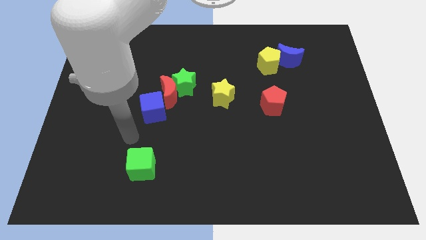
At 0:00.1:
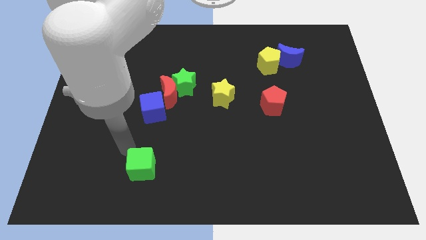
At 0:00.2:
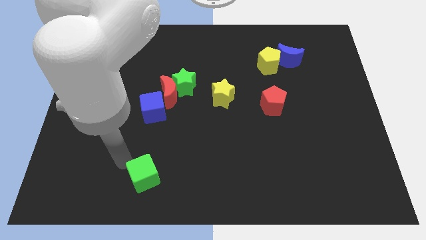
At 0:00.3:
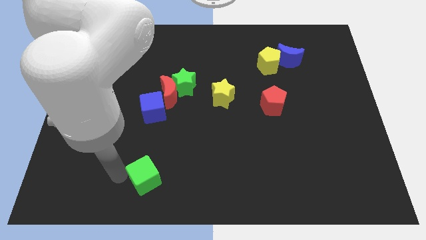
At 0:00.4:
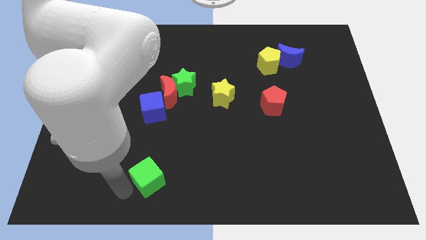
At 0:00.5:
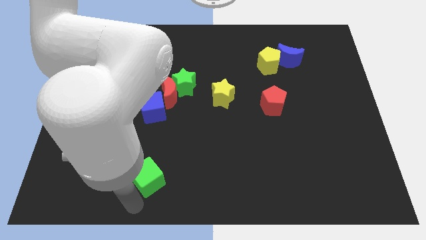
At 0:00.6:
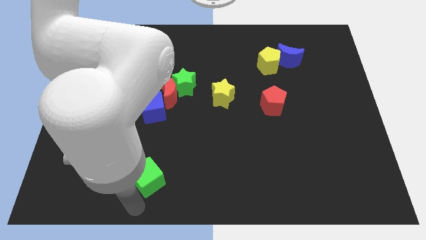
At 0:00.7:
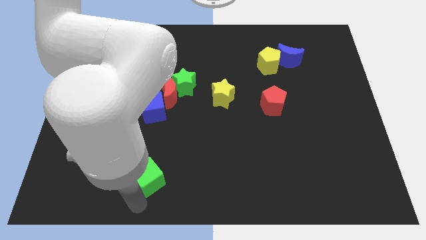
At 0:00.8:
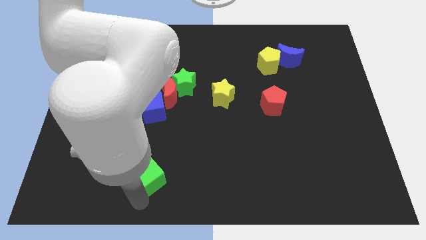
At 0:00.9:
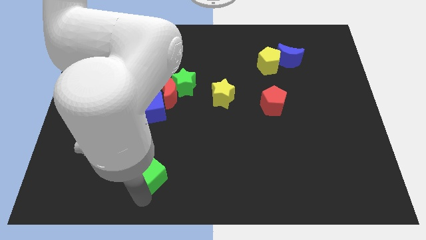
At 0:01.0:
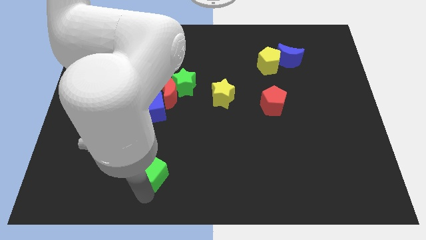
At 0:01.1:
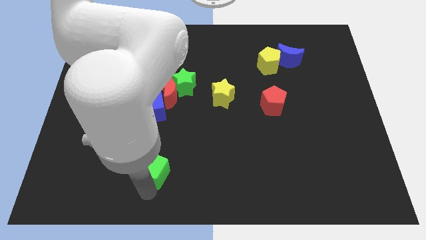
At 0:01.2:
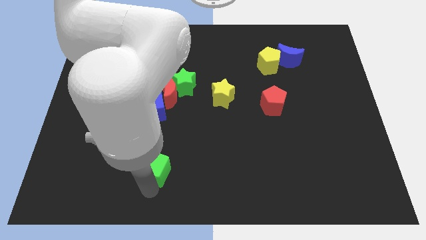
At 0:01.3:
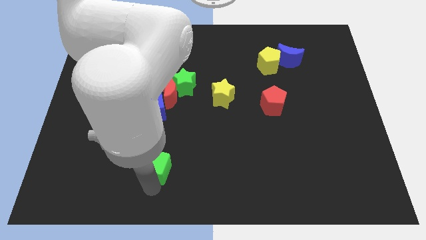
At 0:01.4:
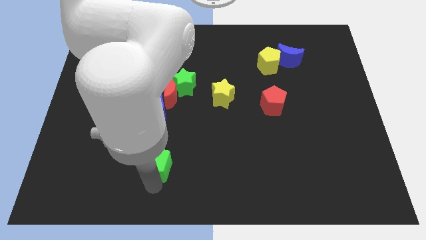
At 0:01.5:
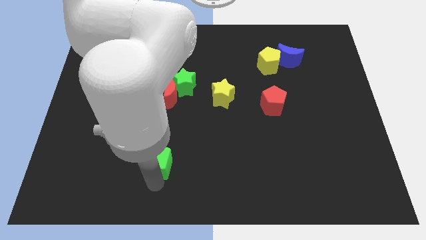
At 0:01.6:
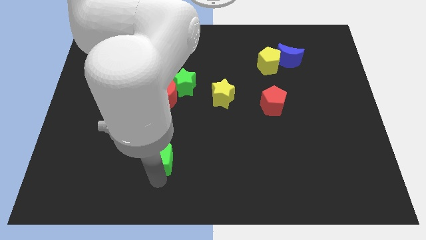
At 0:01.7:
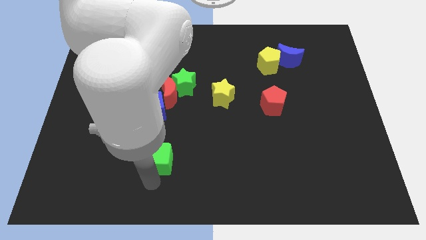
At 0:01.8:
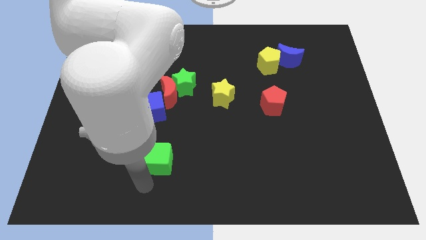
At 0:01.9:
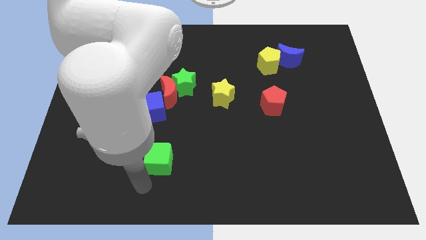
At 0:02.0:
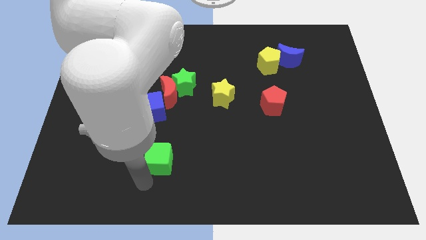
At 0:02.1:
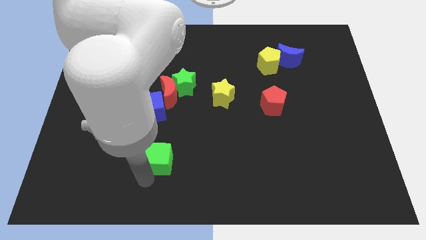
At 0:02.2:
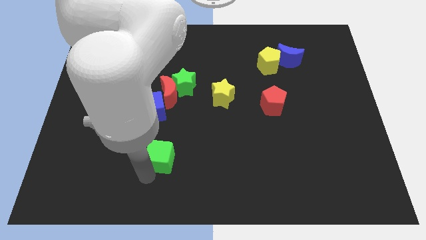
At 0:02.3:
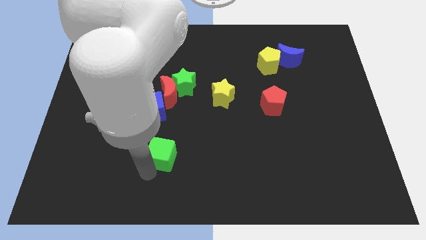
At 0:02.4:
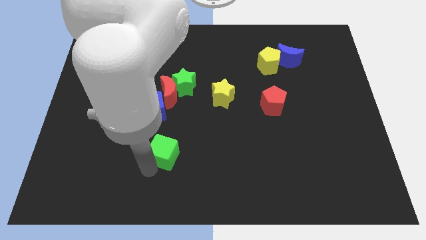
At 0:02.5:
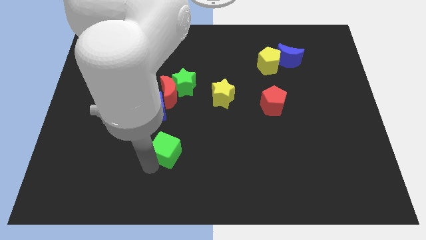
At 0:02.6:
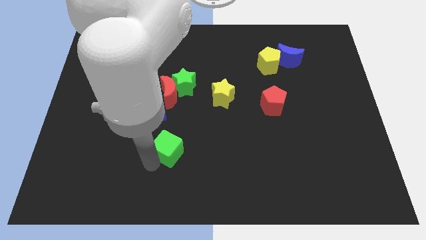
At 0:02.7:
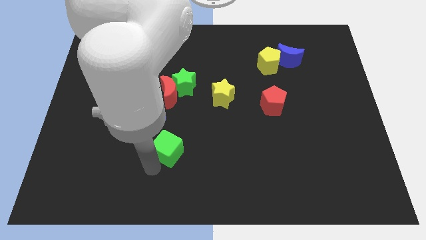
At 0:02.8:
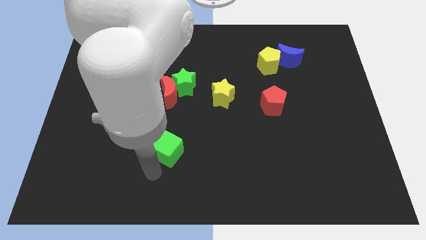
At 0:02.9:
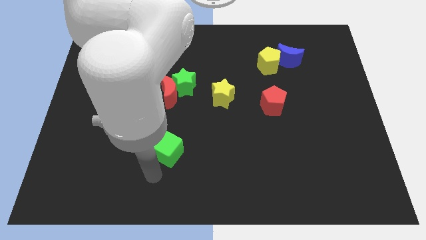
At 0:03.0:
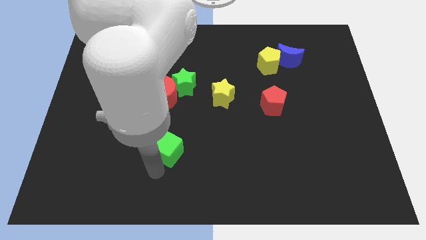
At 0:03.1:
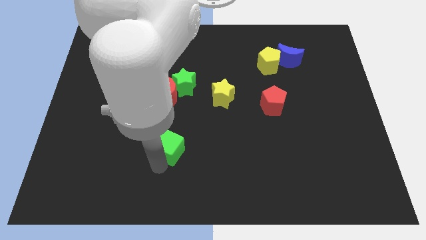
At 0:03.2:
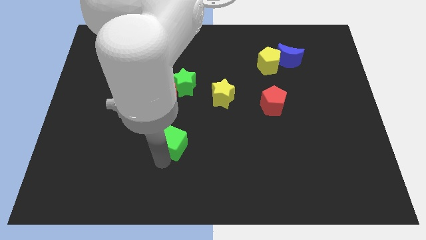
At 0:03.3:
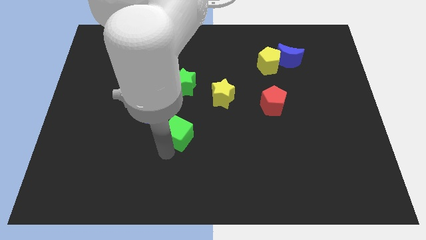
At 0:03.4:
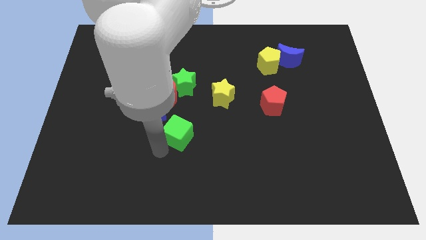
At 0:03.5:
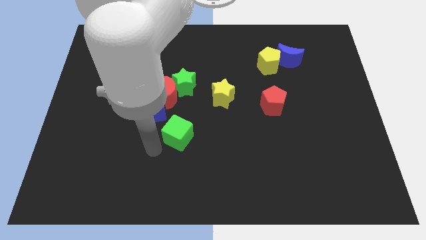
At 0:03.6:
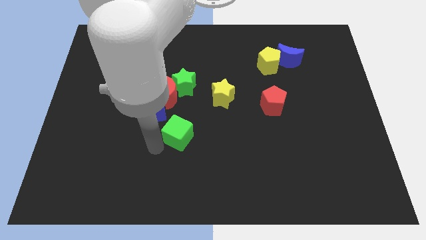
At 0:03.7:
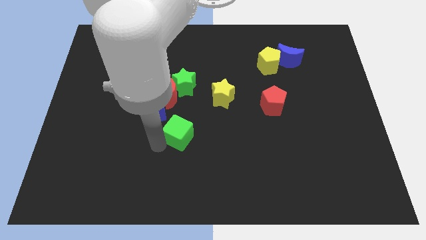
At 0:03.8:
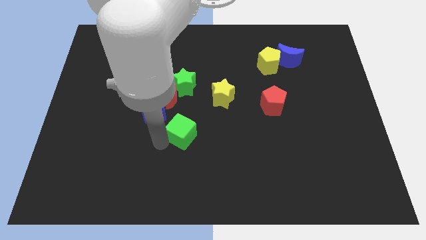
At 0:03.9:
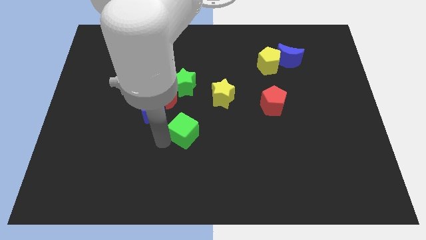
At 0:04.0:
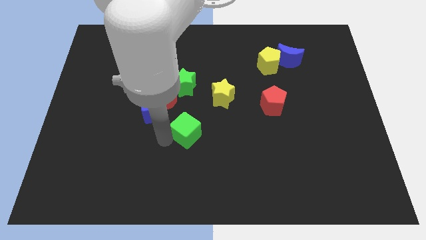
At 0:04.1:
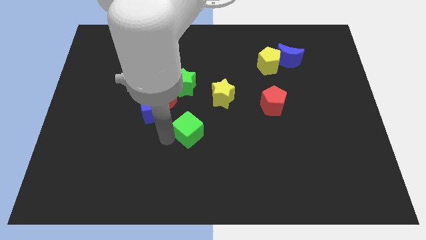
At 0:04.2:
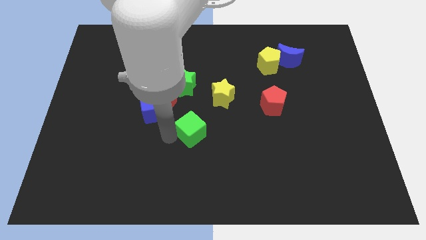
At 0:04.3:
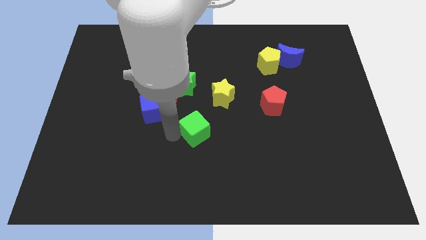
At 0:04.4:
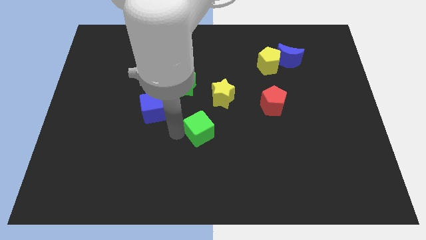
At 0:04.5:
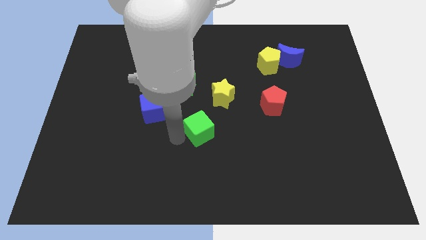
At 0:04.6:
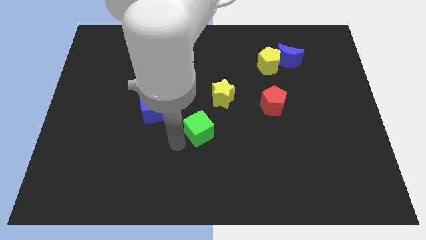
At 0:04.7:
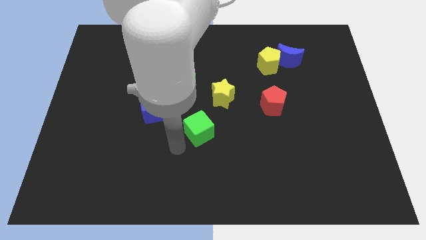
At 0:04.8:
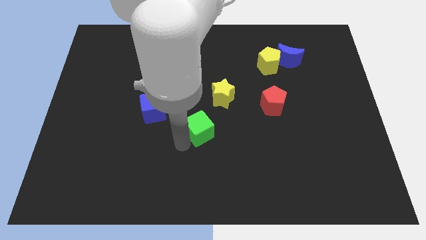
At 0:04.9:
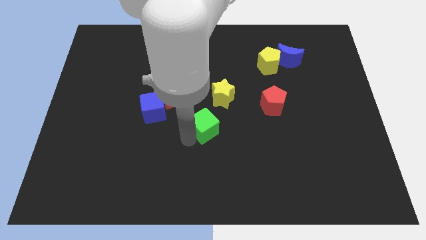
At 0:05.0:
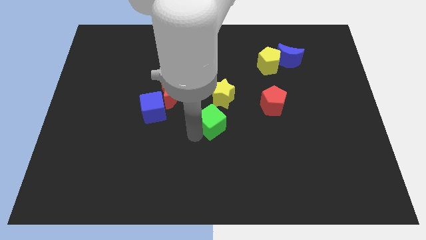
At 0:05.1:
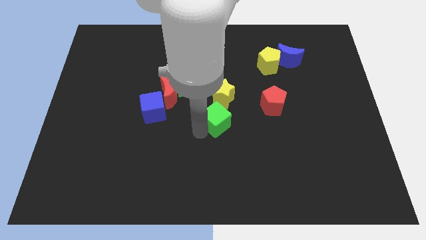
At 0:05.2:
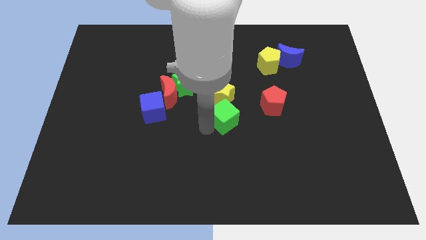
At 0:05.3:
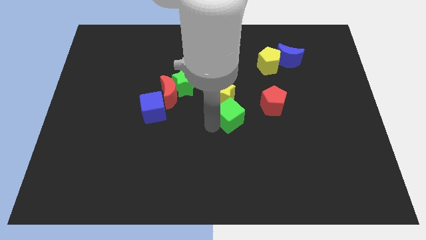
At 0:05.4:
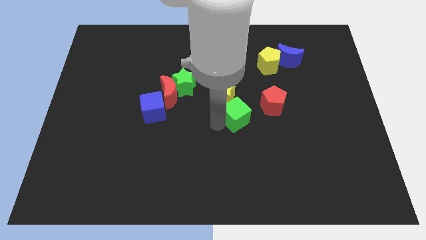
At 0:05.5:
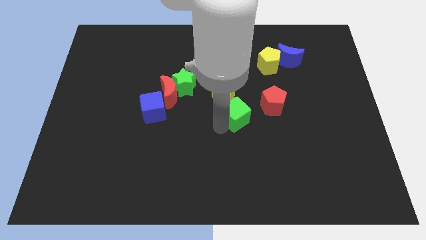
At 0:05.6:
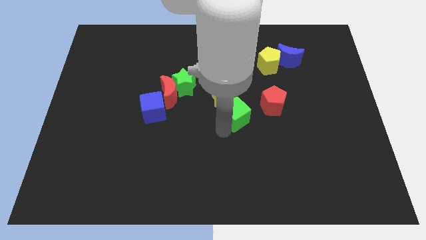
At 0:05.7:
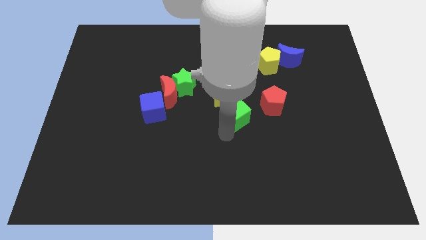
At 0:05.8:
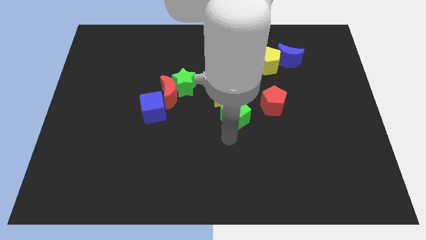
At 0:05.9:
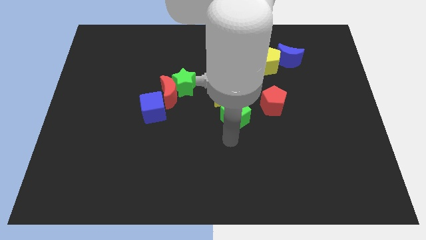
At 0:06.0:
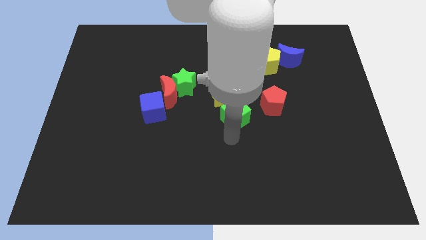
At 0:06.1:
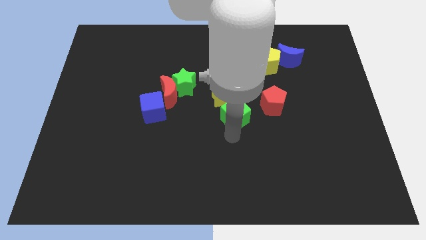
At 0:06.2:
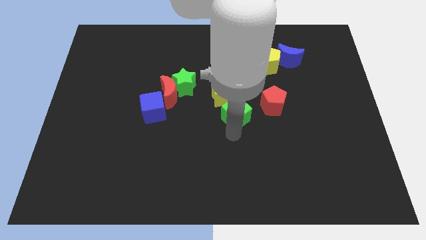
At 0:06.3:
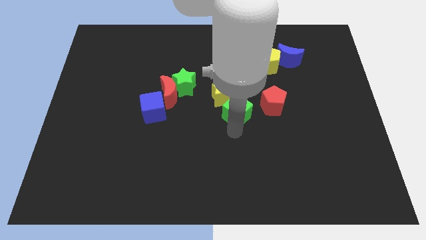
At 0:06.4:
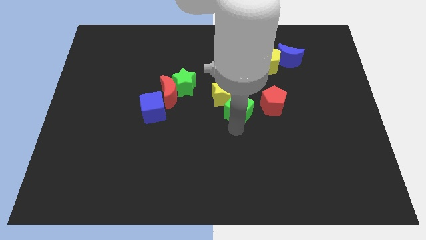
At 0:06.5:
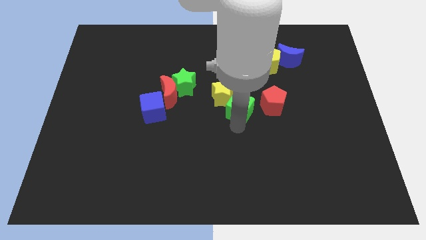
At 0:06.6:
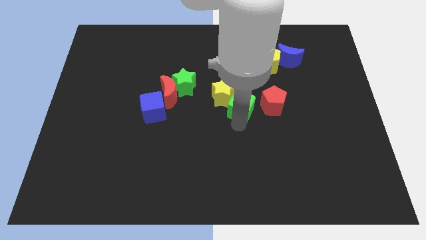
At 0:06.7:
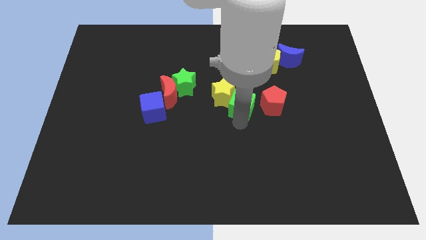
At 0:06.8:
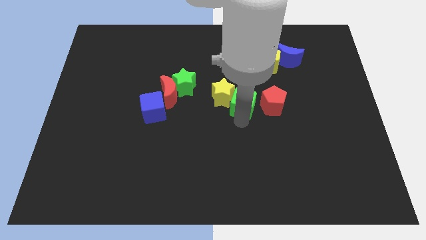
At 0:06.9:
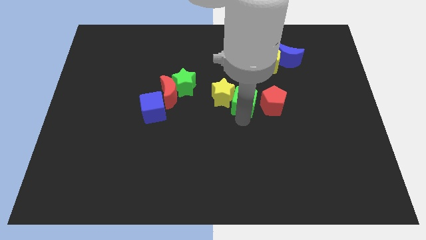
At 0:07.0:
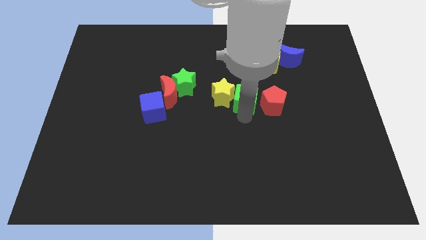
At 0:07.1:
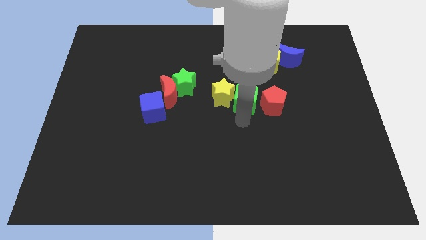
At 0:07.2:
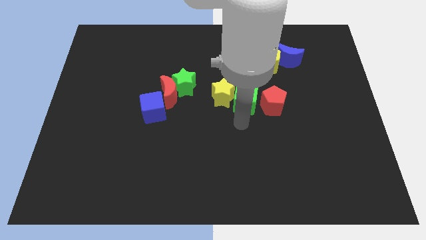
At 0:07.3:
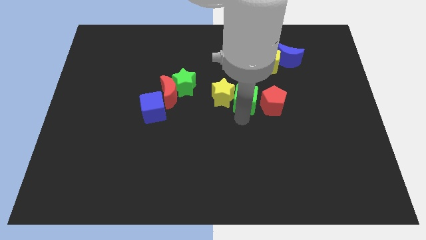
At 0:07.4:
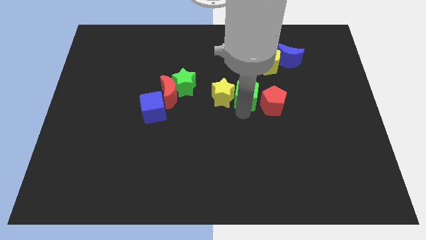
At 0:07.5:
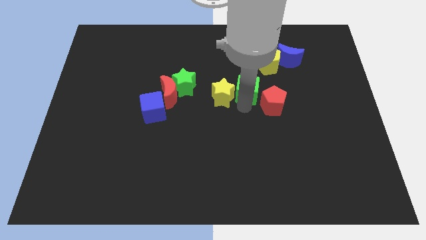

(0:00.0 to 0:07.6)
slide the green cube diagonally down and to the left of the yellow pentagon
